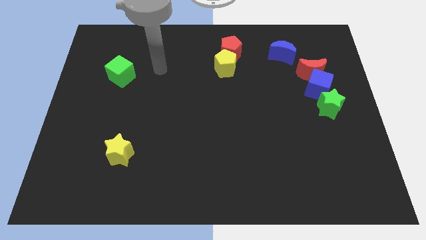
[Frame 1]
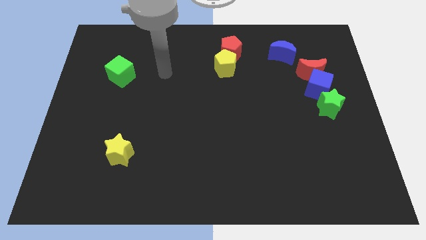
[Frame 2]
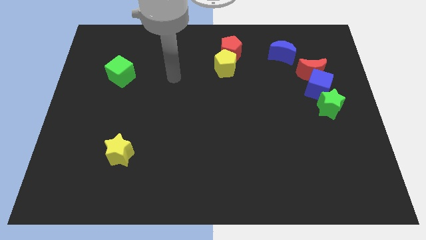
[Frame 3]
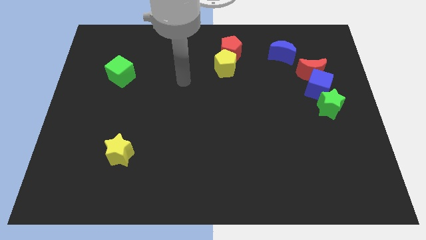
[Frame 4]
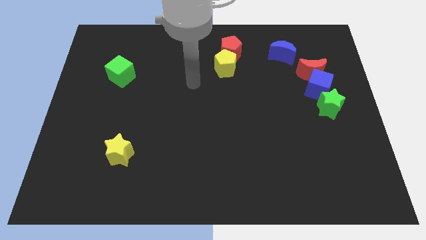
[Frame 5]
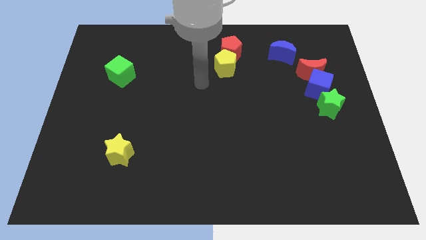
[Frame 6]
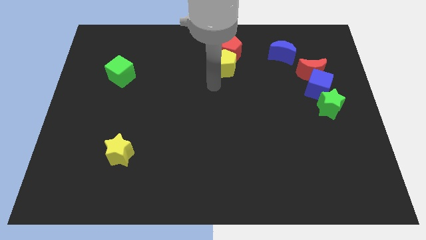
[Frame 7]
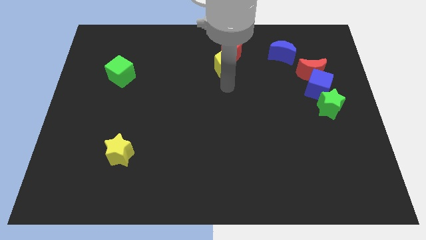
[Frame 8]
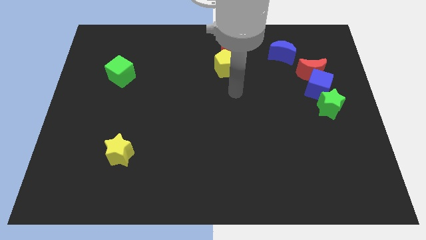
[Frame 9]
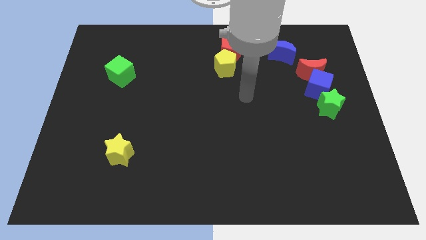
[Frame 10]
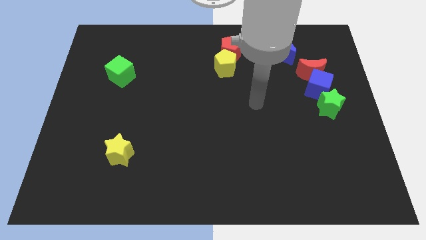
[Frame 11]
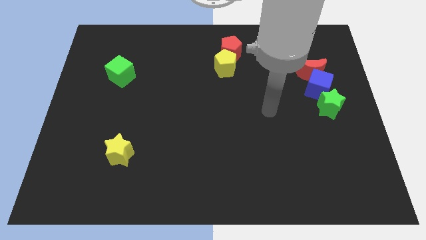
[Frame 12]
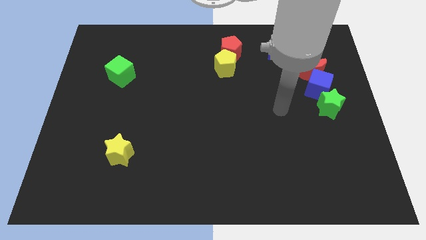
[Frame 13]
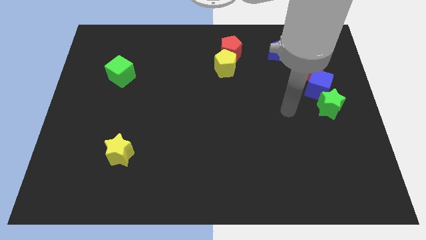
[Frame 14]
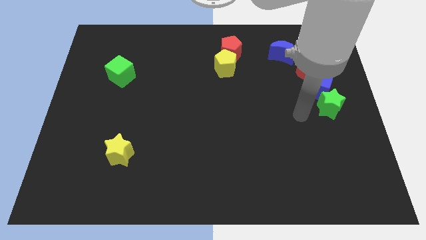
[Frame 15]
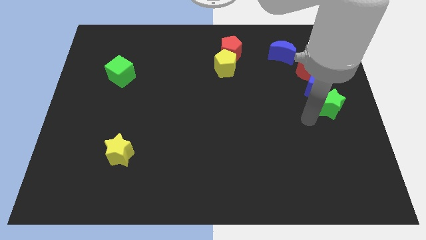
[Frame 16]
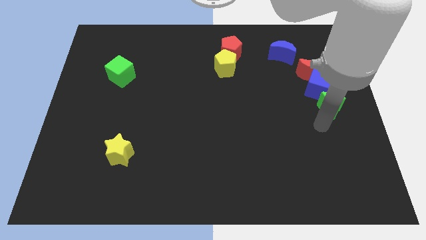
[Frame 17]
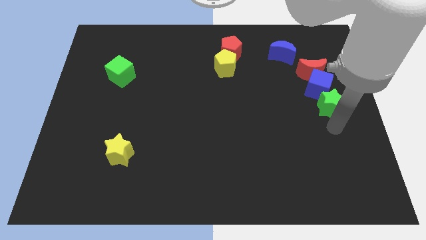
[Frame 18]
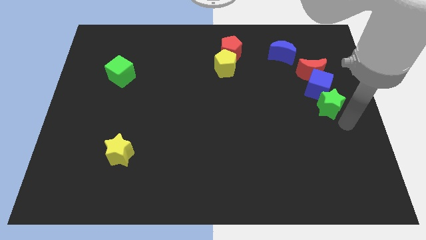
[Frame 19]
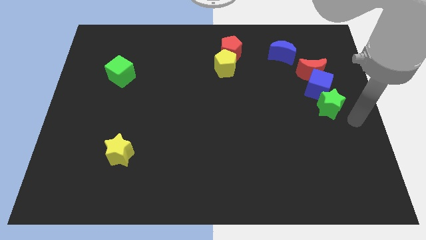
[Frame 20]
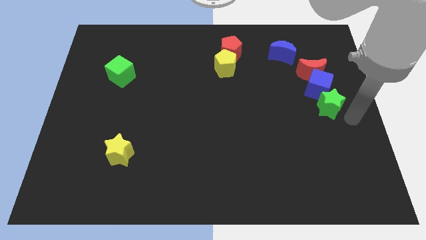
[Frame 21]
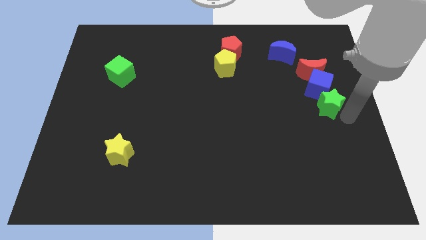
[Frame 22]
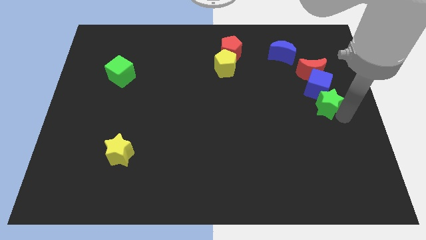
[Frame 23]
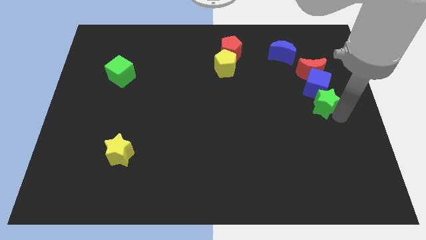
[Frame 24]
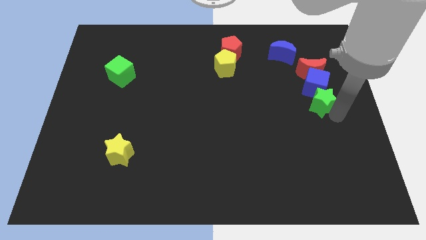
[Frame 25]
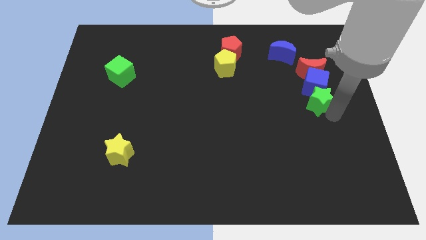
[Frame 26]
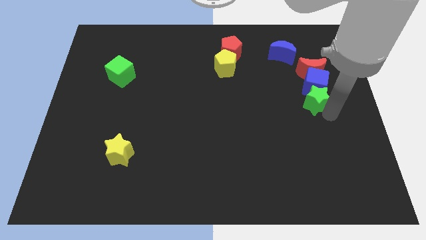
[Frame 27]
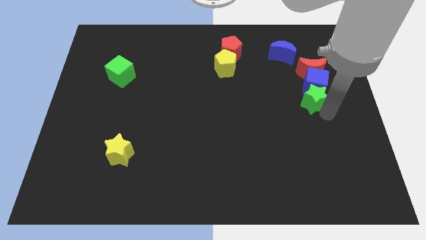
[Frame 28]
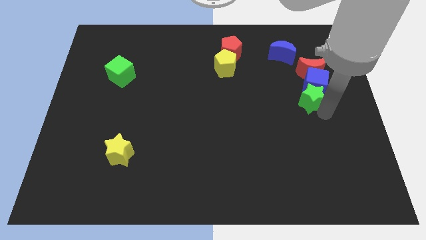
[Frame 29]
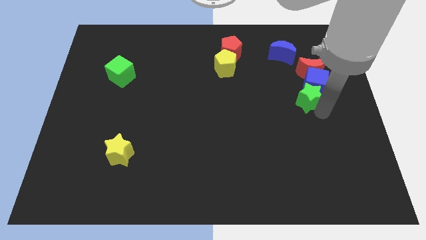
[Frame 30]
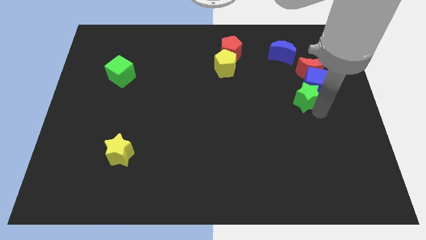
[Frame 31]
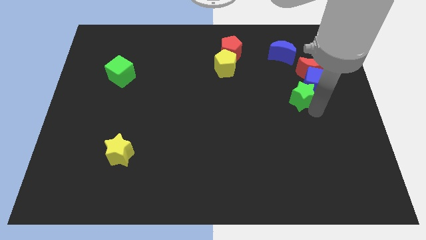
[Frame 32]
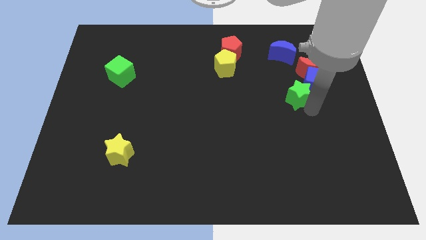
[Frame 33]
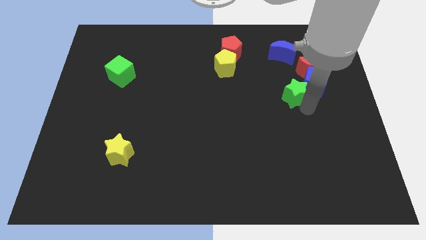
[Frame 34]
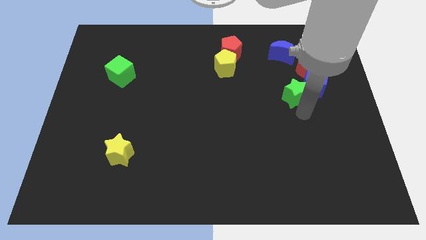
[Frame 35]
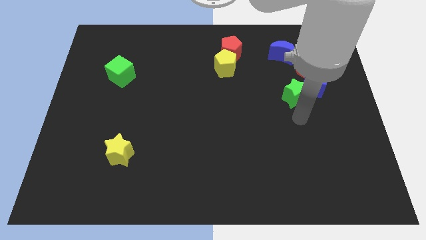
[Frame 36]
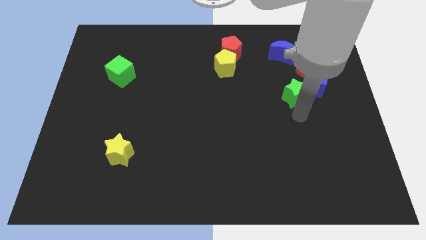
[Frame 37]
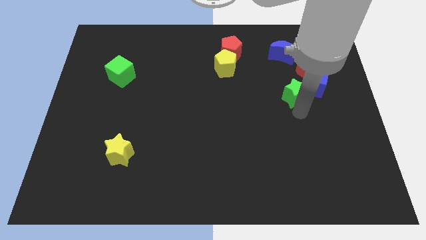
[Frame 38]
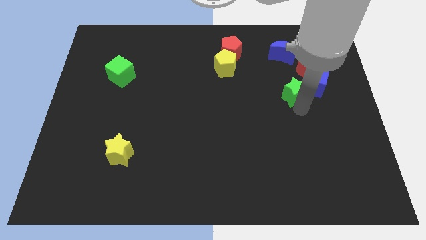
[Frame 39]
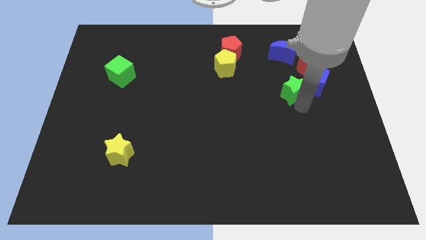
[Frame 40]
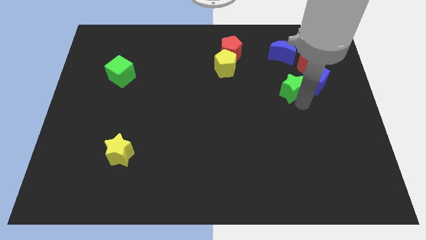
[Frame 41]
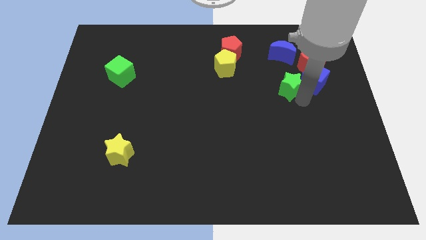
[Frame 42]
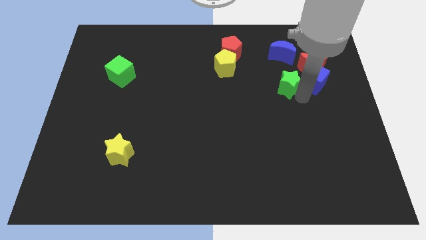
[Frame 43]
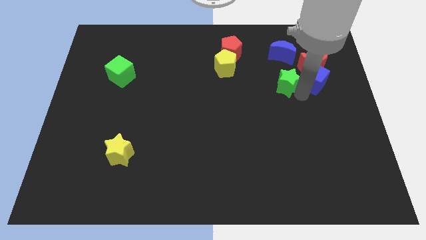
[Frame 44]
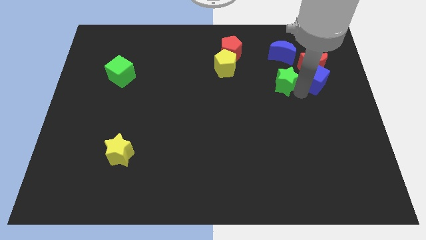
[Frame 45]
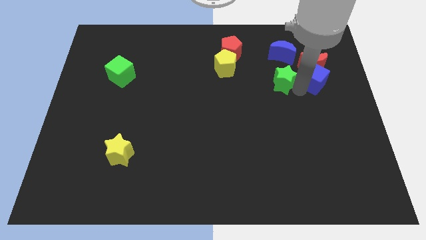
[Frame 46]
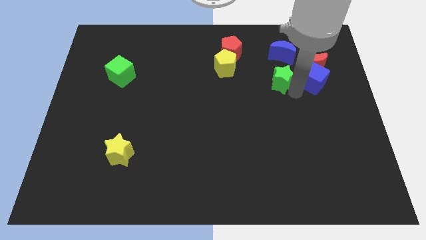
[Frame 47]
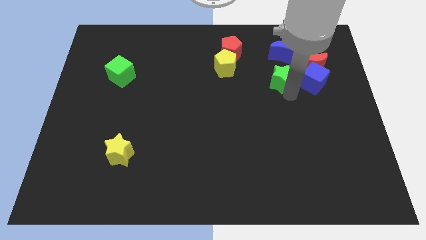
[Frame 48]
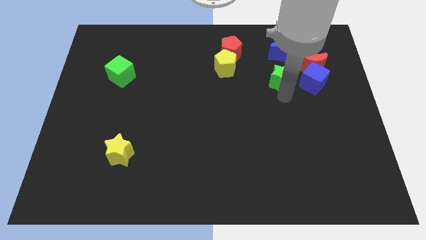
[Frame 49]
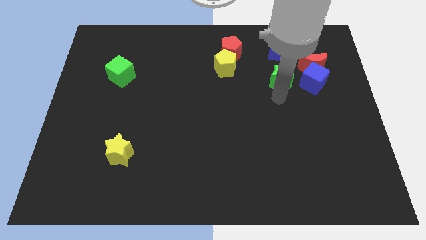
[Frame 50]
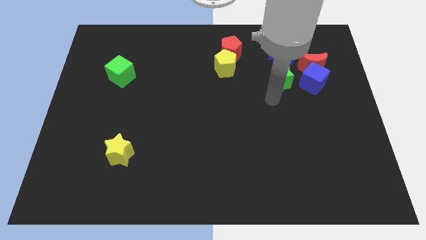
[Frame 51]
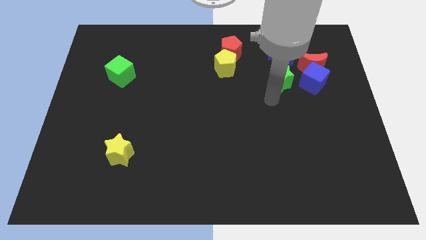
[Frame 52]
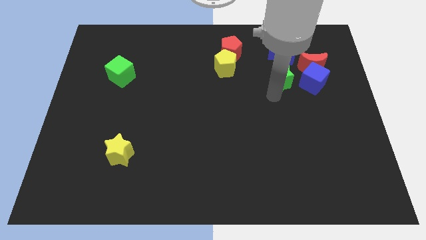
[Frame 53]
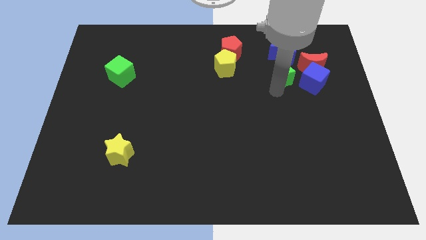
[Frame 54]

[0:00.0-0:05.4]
slide the green star diagonally up and to the left of the blue cube

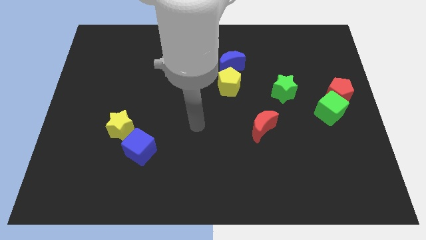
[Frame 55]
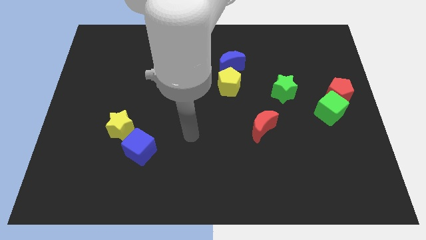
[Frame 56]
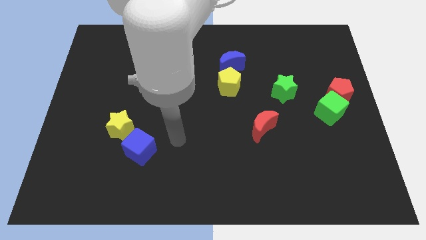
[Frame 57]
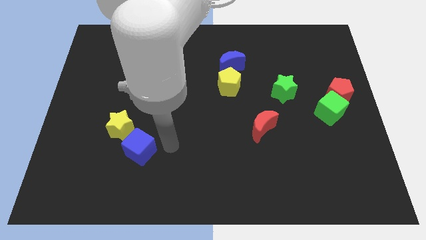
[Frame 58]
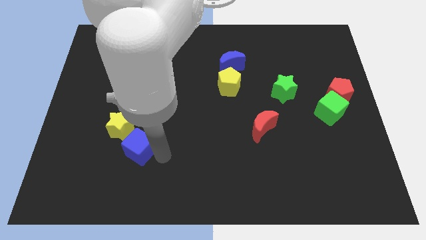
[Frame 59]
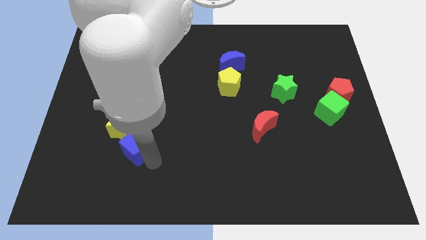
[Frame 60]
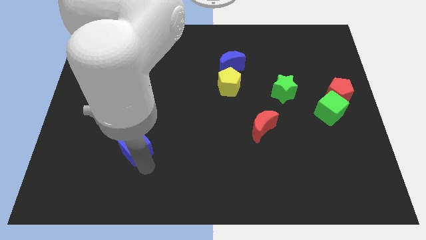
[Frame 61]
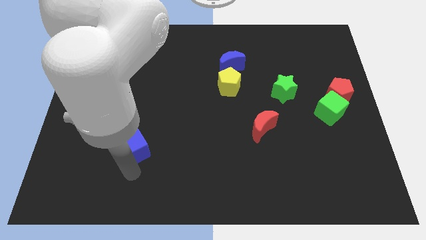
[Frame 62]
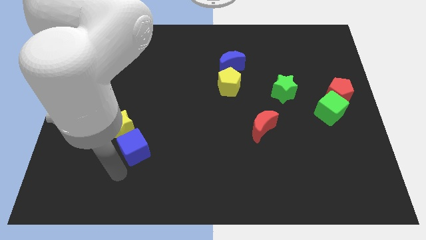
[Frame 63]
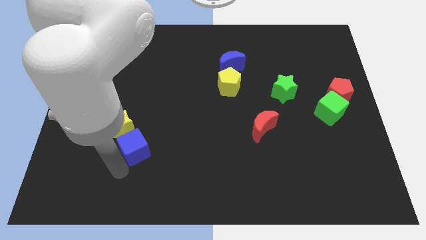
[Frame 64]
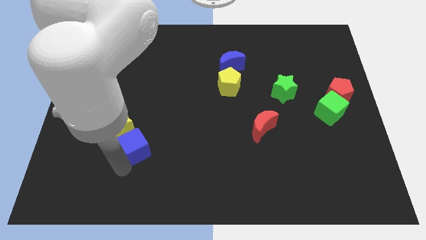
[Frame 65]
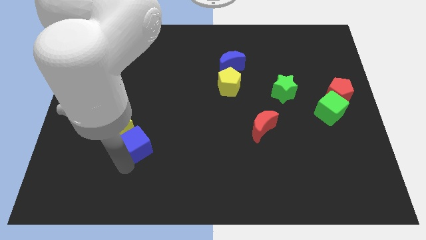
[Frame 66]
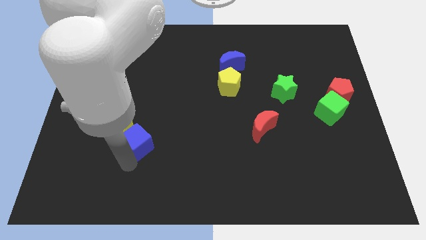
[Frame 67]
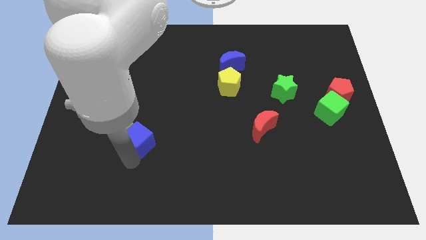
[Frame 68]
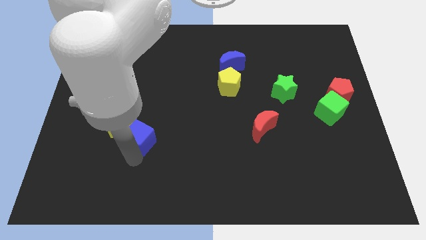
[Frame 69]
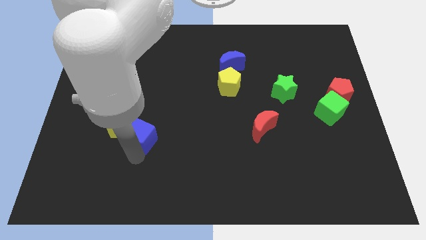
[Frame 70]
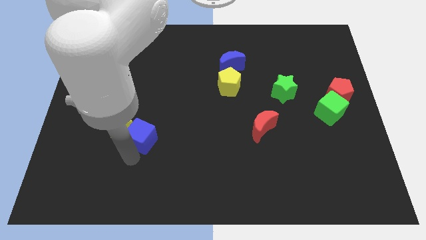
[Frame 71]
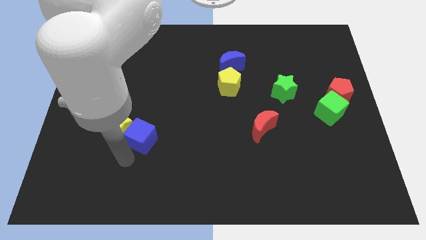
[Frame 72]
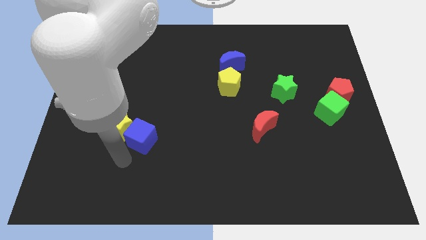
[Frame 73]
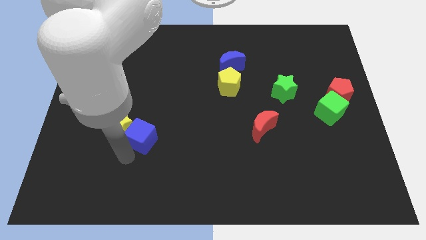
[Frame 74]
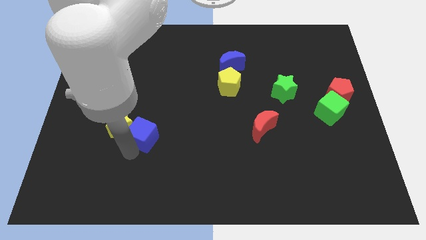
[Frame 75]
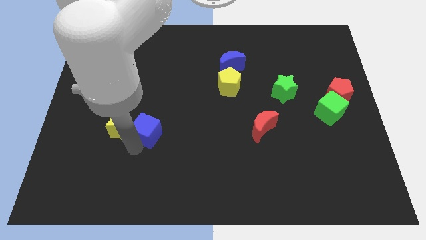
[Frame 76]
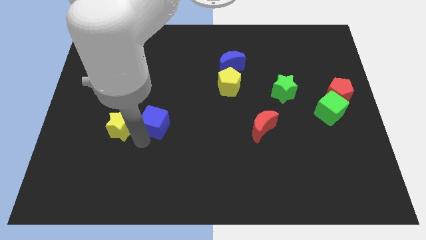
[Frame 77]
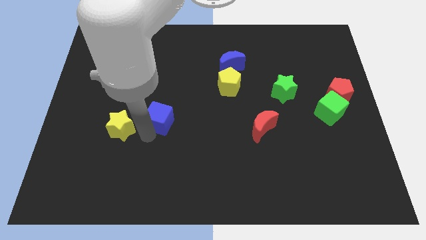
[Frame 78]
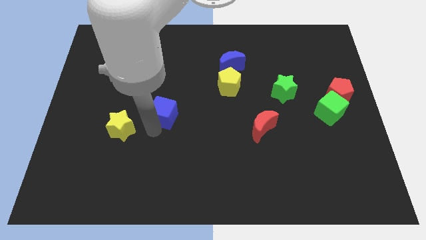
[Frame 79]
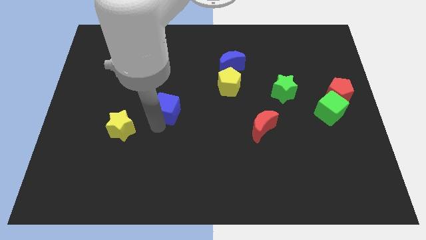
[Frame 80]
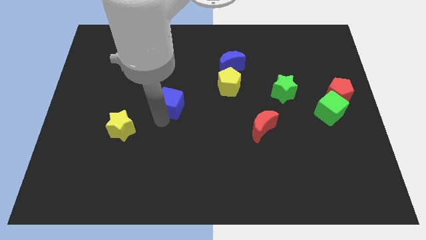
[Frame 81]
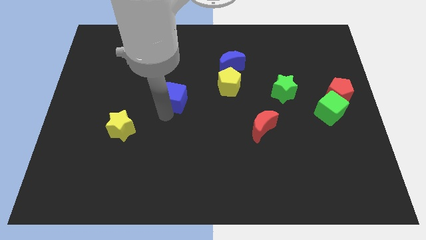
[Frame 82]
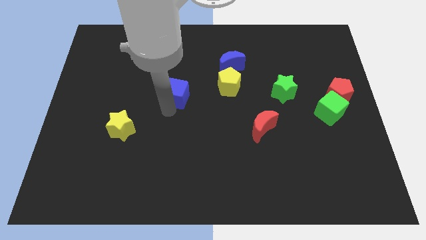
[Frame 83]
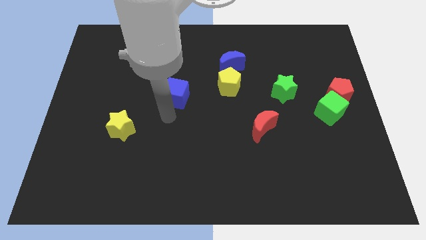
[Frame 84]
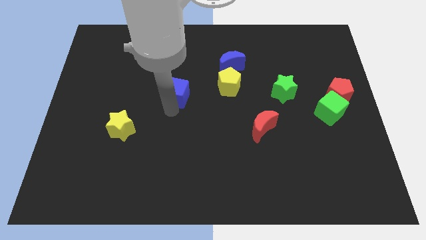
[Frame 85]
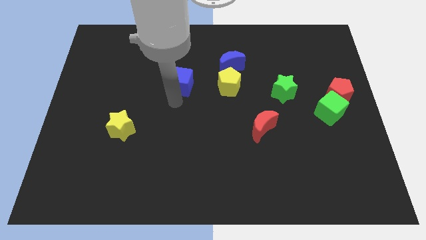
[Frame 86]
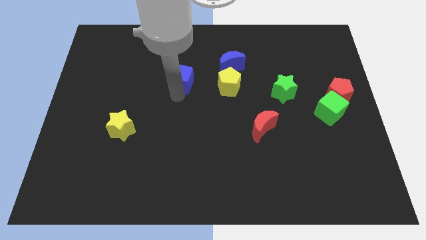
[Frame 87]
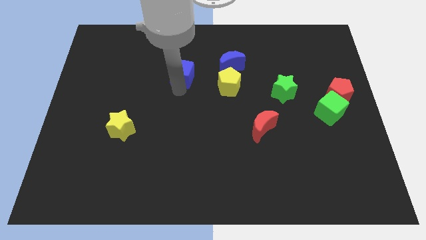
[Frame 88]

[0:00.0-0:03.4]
slide the blue cube to the left side of the blue moon
